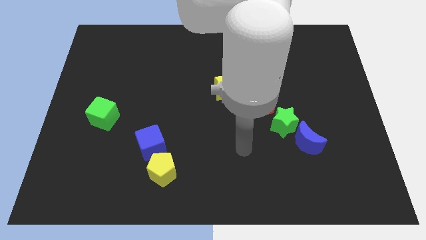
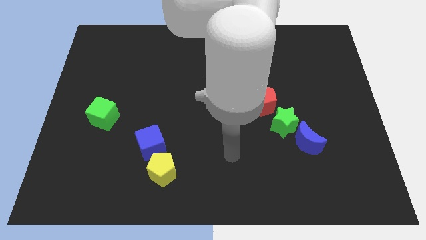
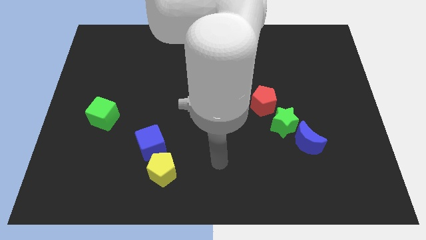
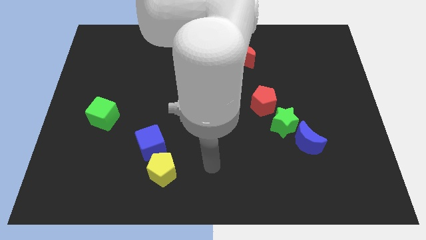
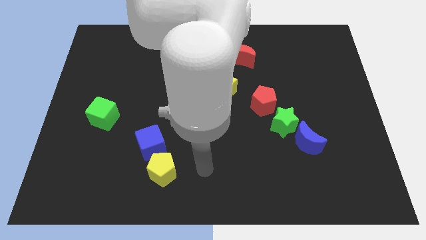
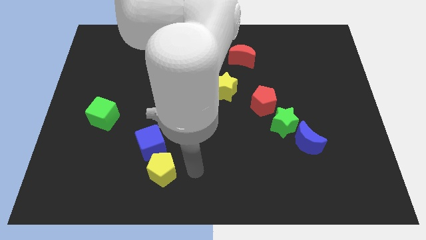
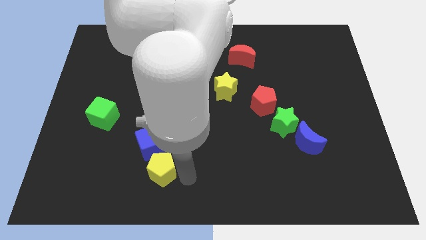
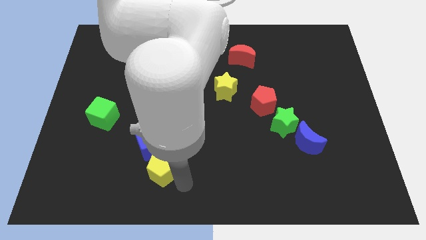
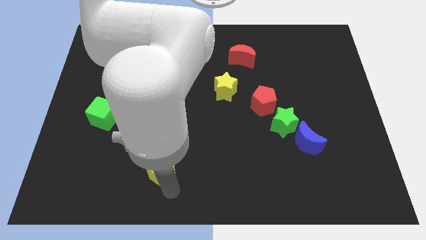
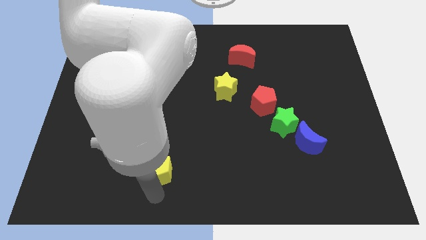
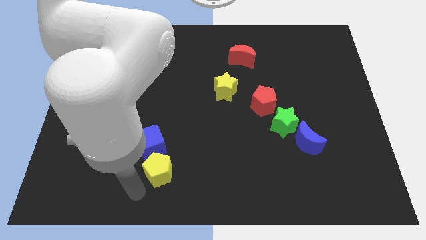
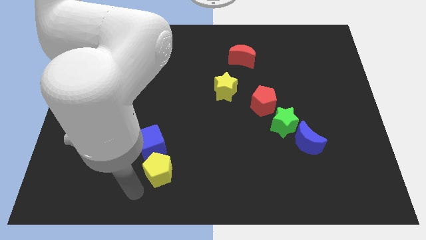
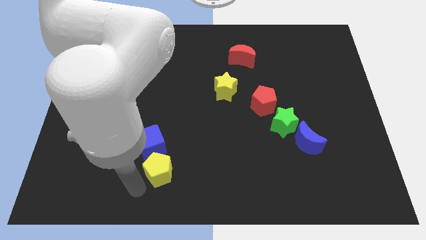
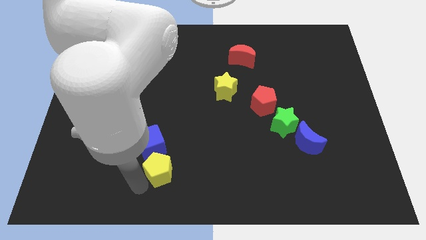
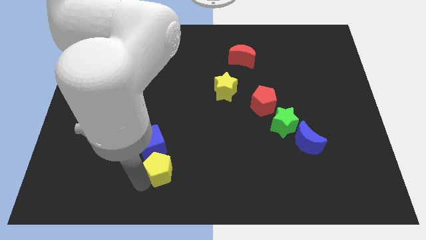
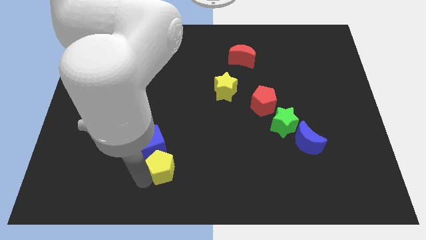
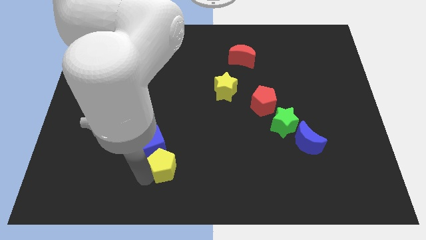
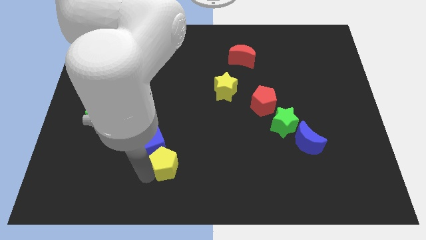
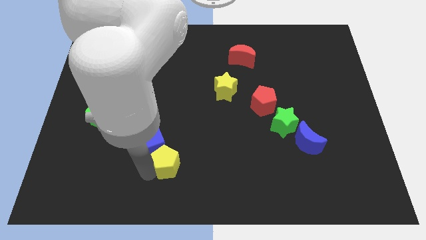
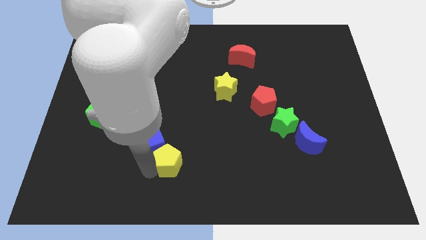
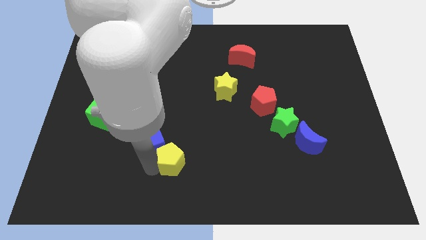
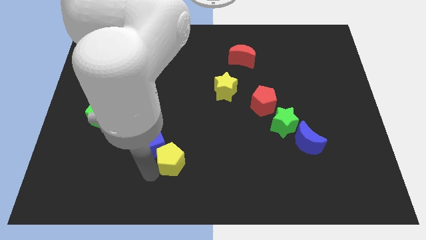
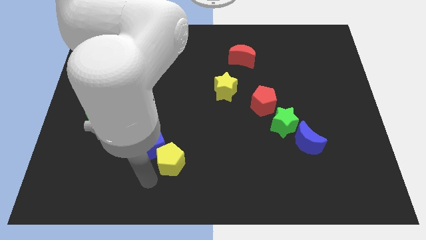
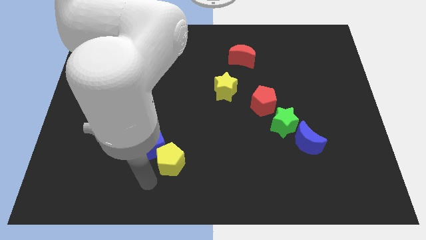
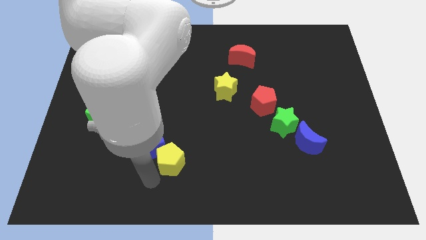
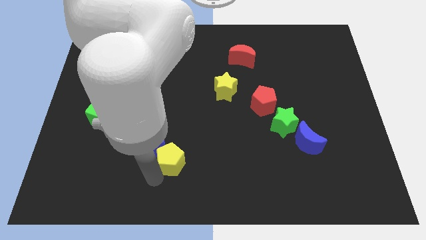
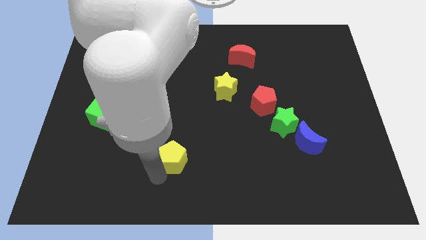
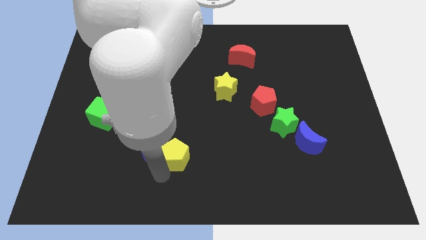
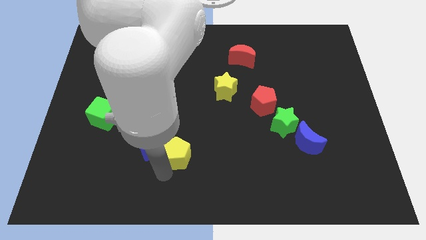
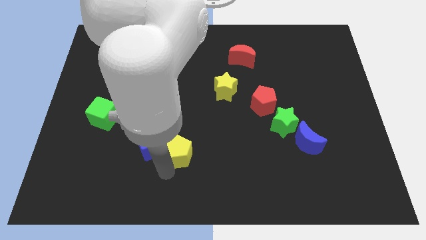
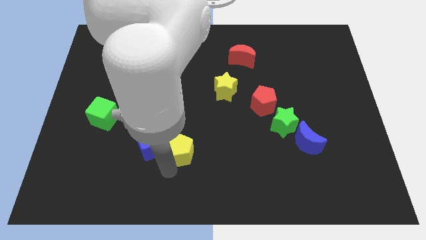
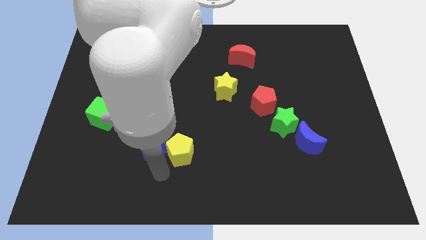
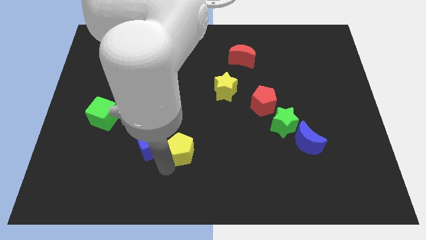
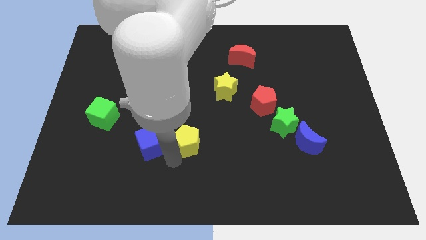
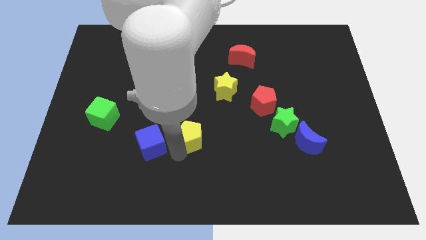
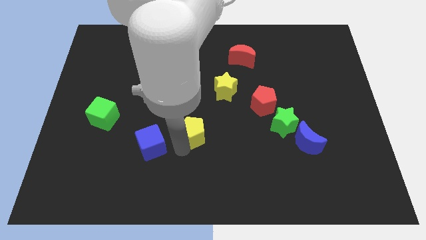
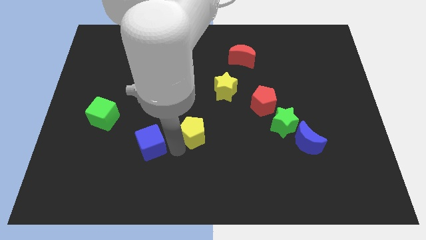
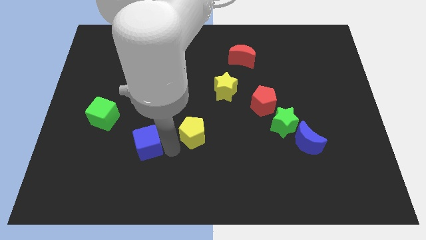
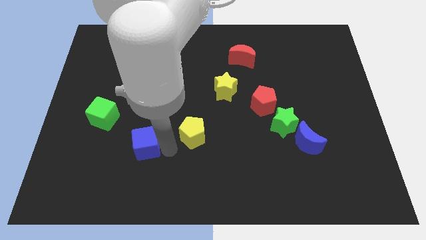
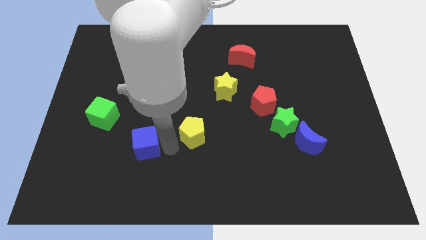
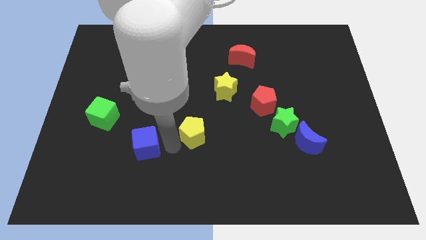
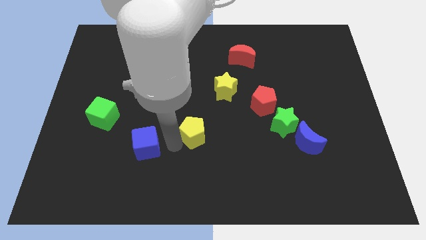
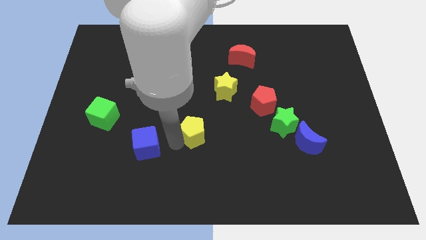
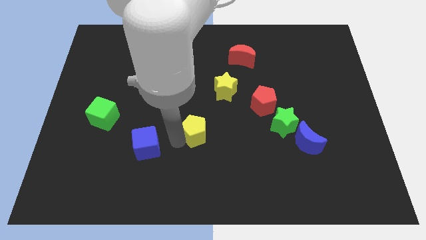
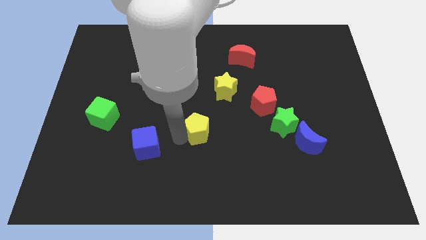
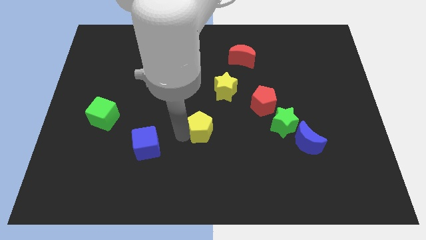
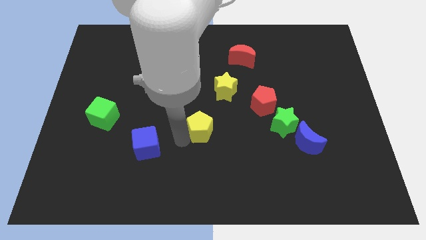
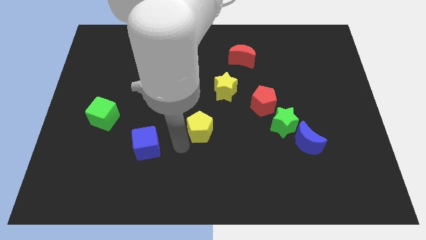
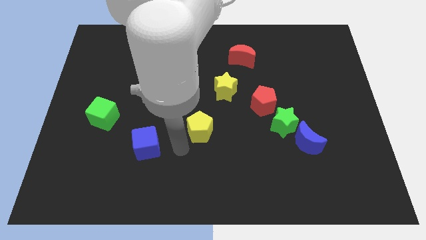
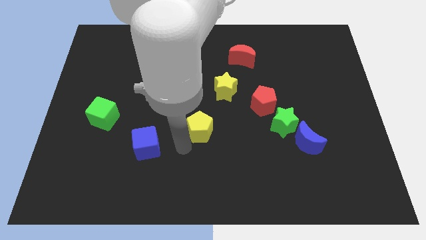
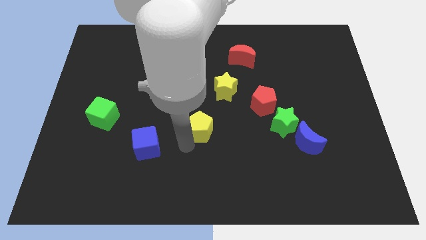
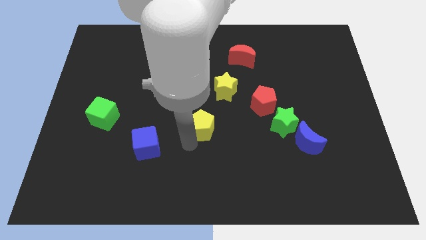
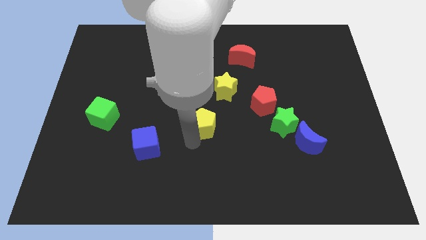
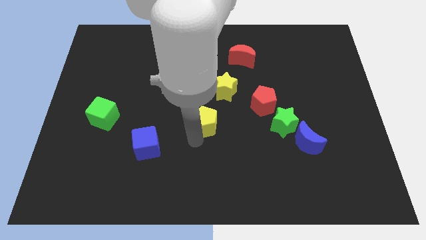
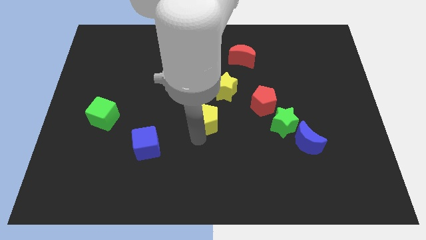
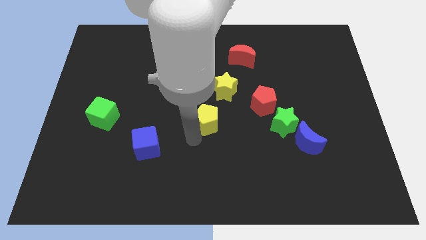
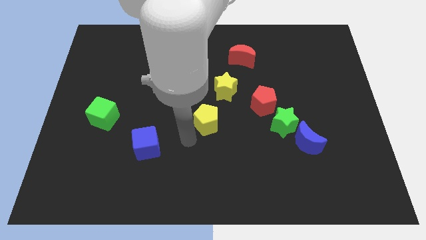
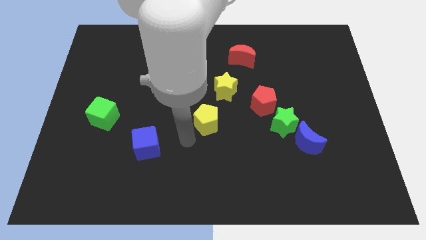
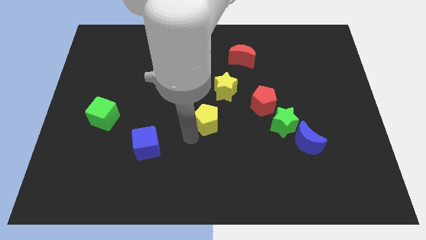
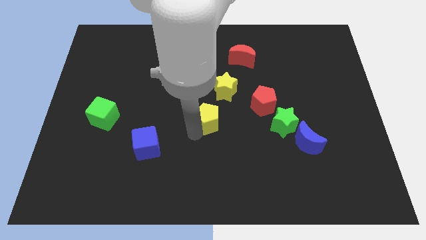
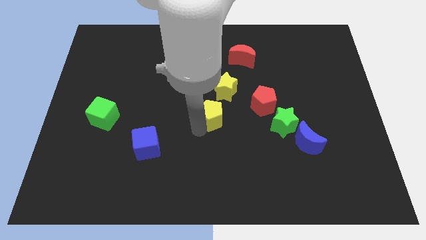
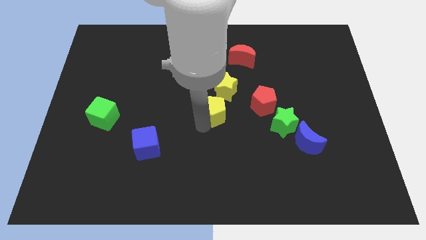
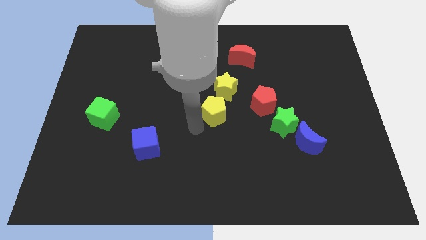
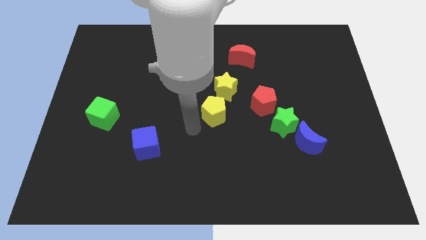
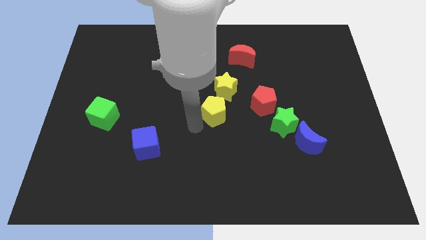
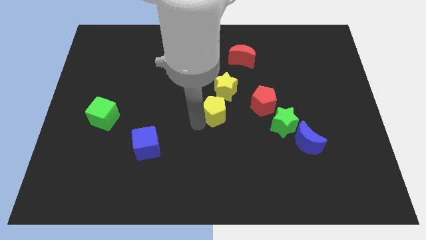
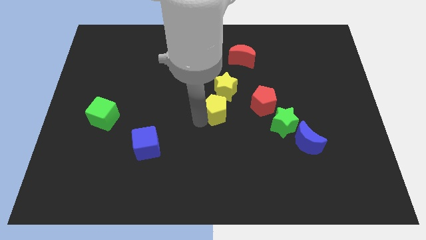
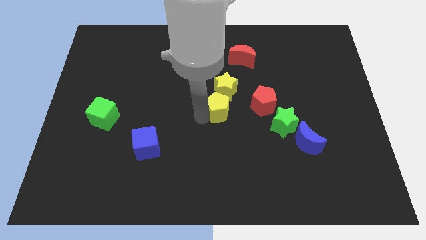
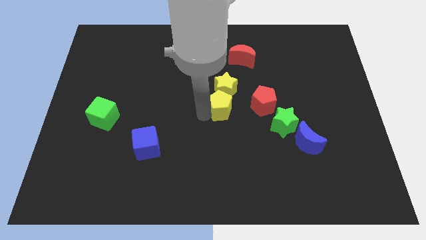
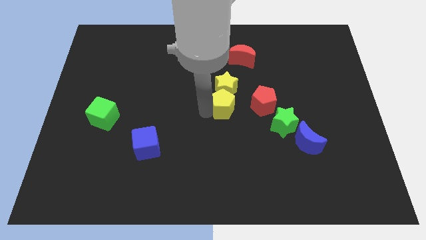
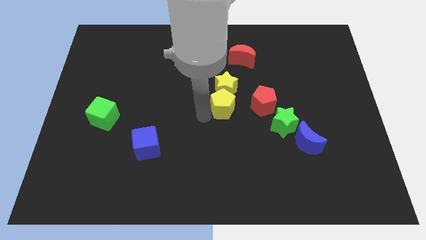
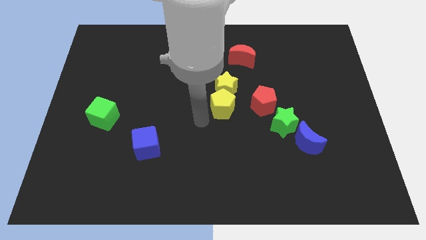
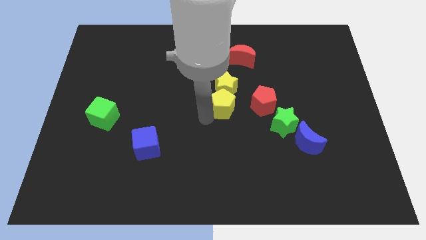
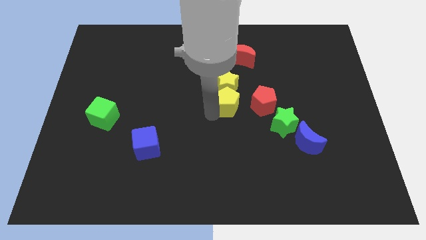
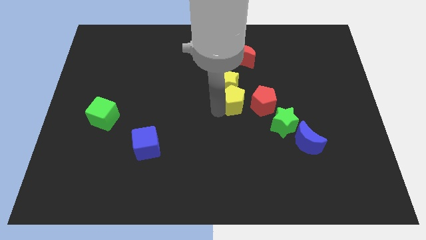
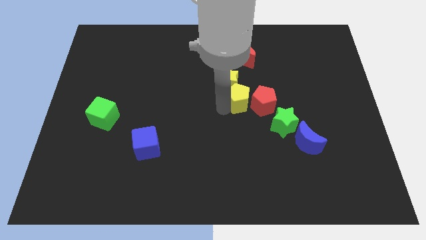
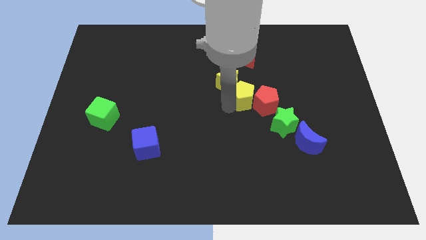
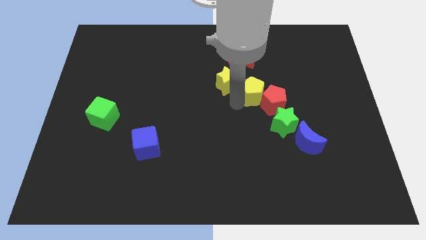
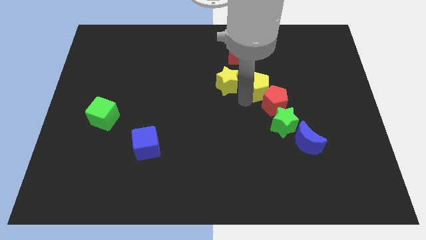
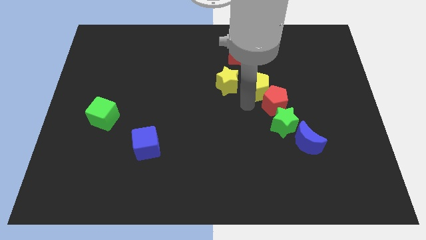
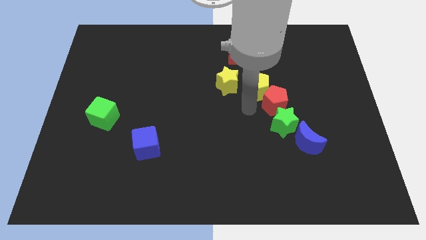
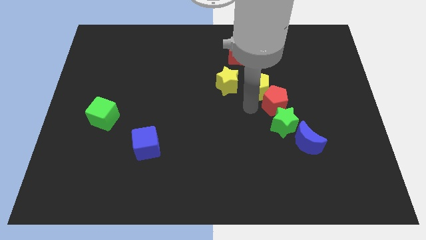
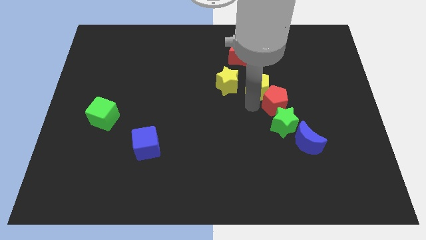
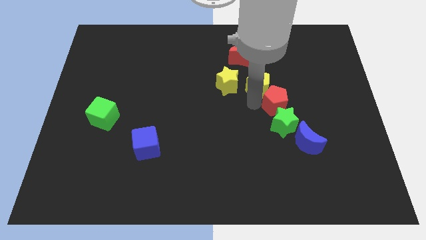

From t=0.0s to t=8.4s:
slide the yellow pentagon to the bottom right side of the red moon
